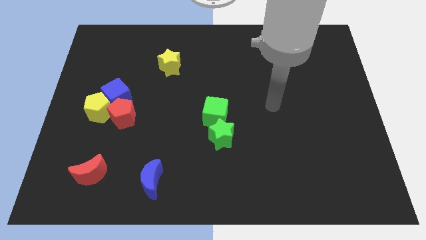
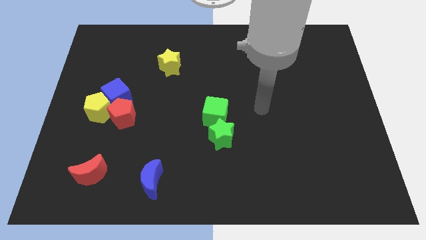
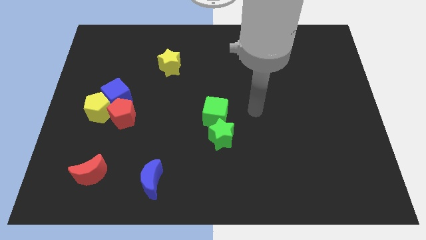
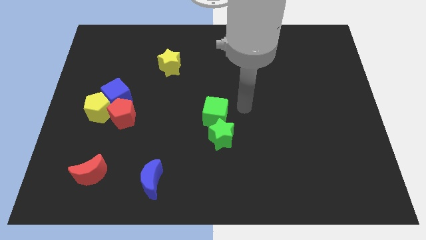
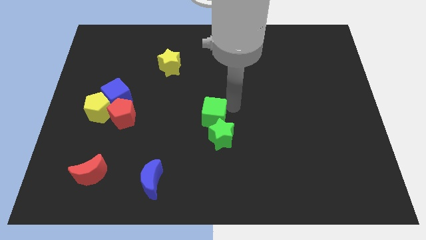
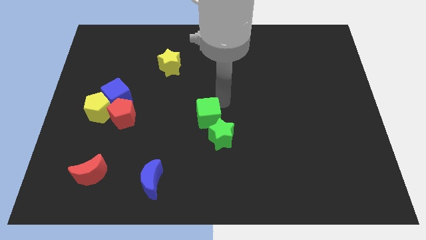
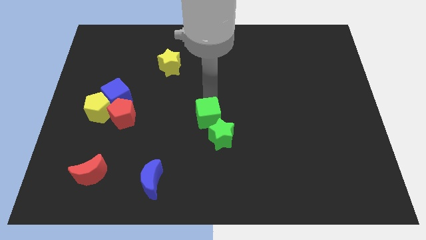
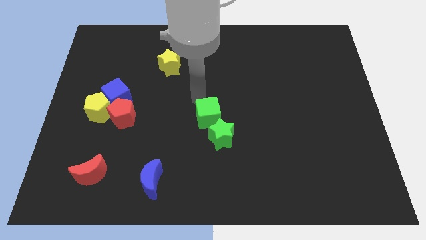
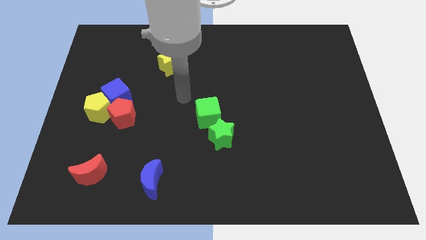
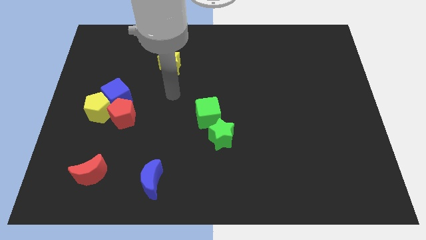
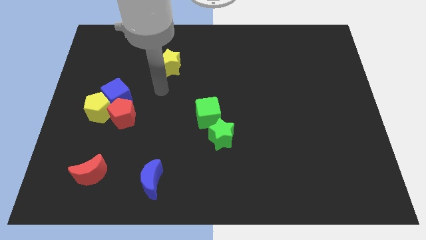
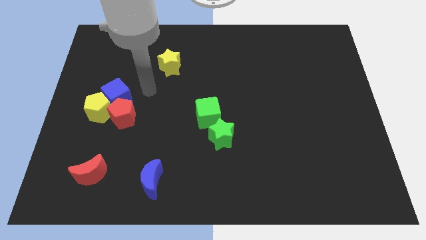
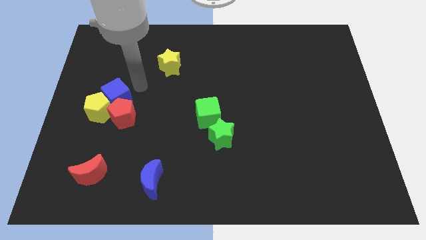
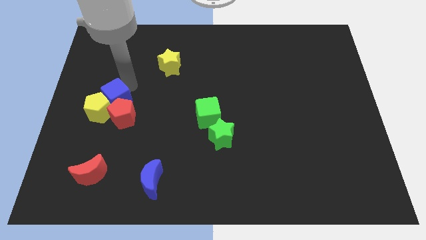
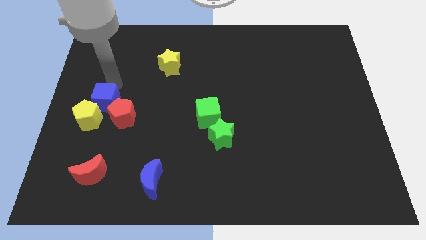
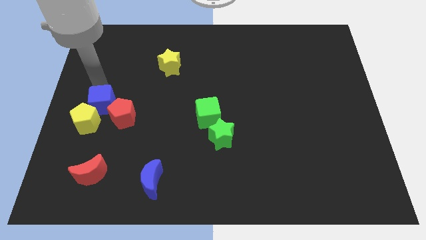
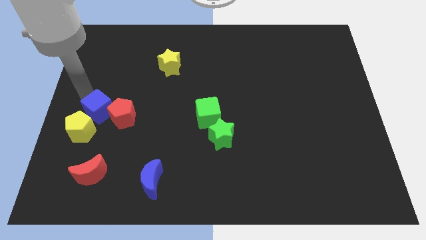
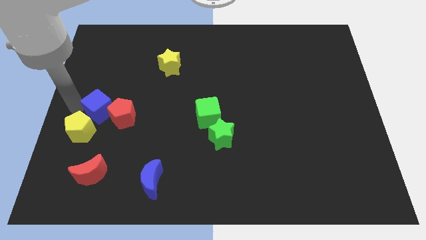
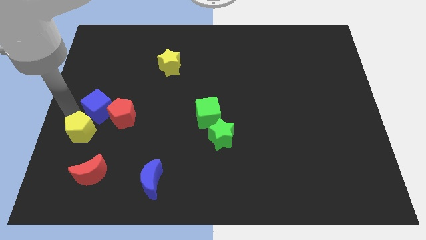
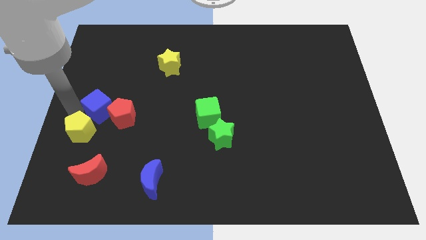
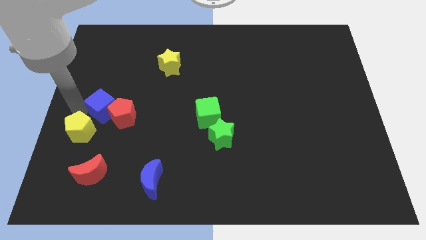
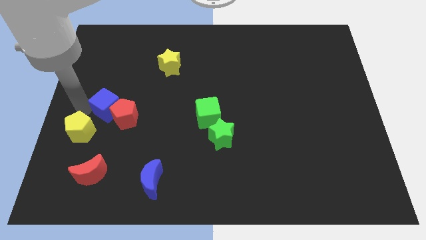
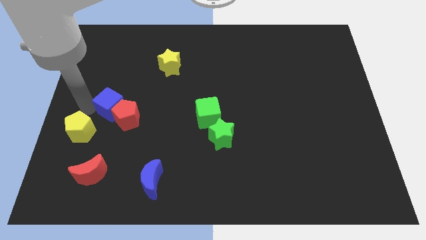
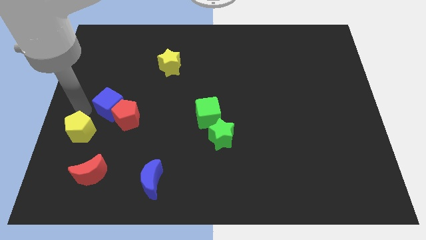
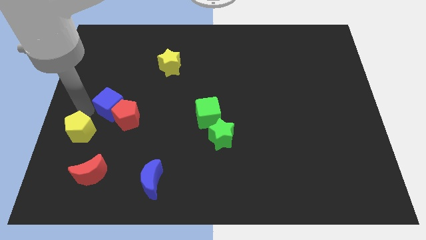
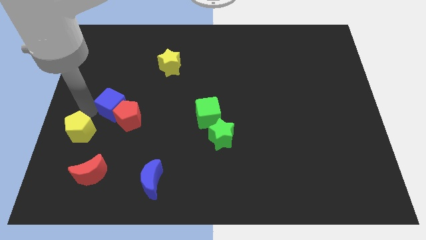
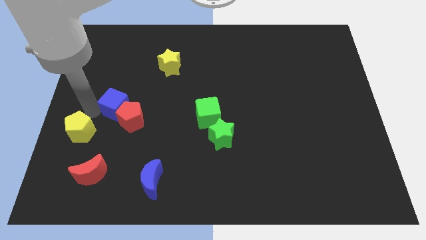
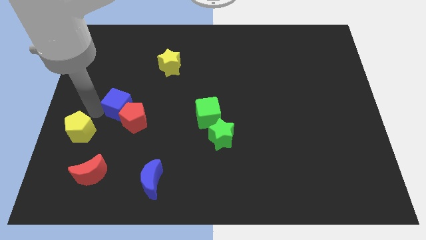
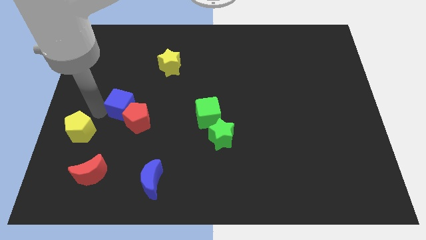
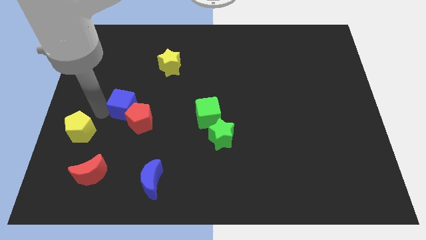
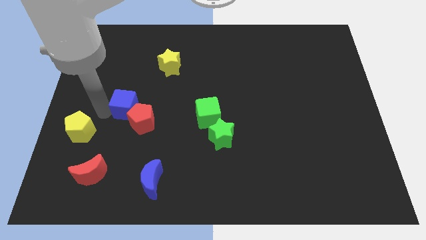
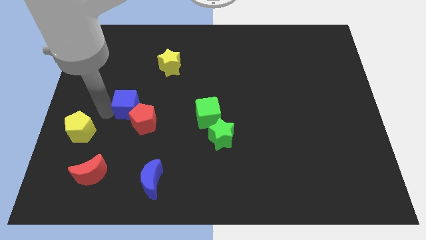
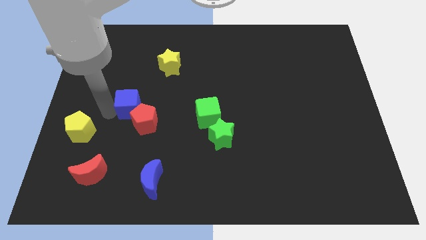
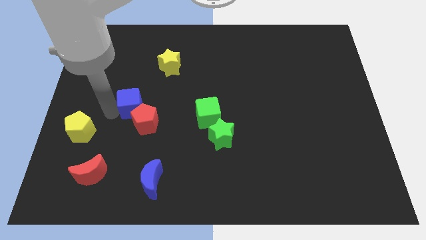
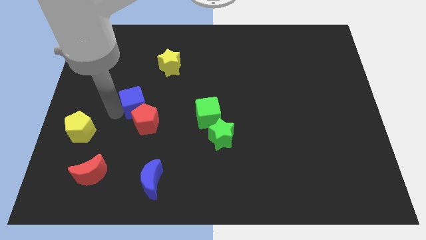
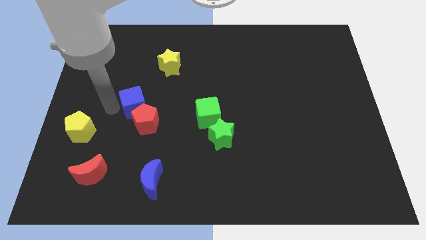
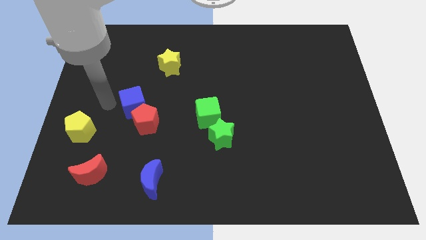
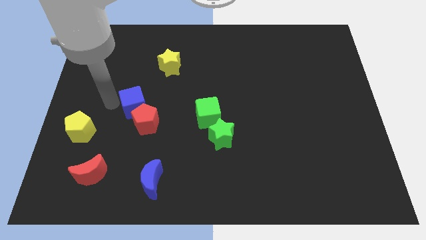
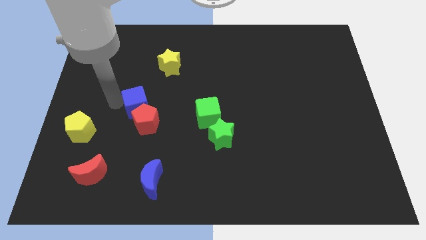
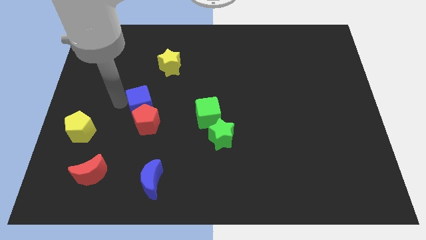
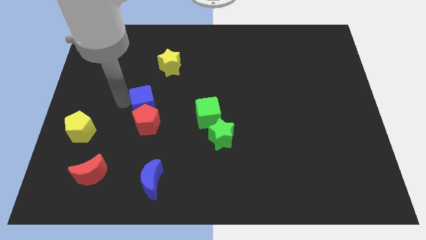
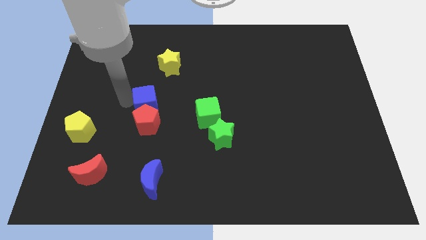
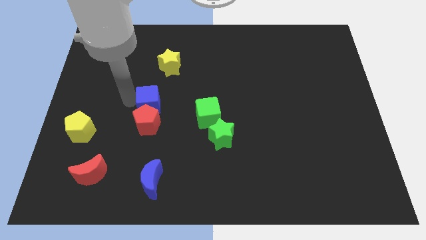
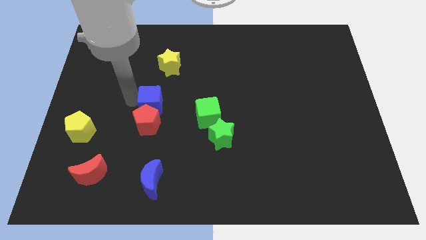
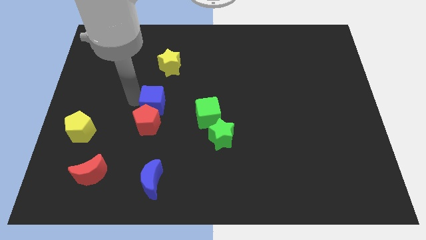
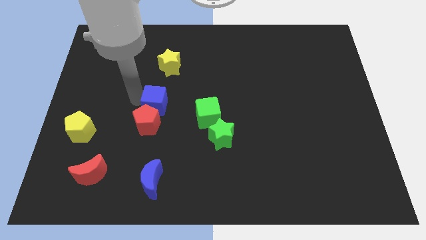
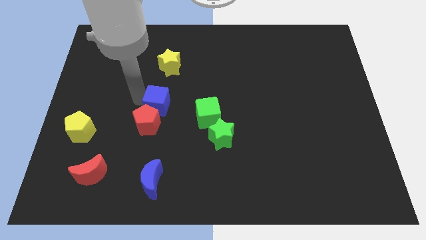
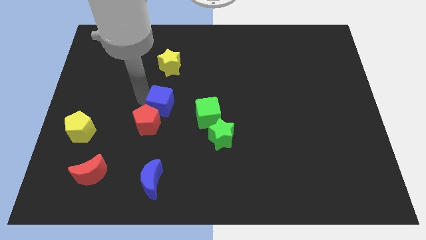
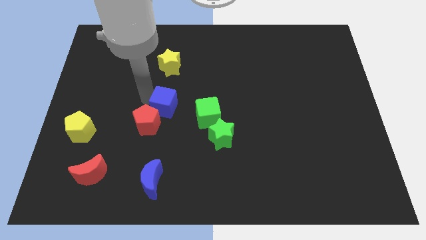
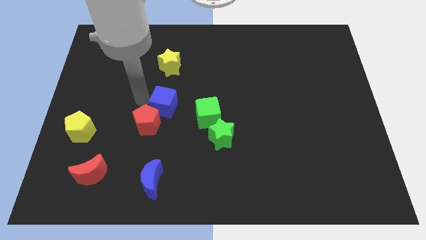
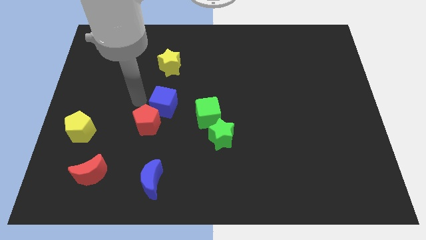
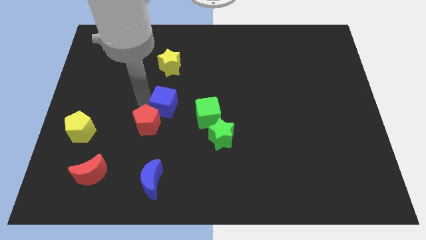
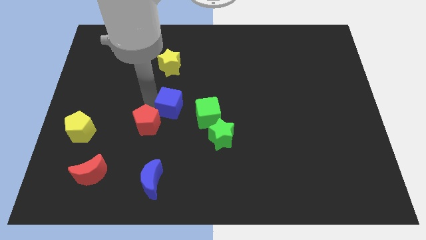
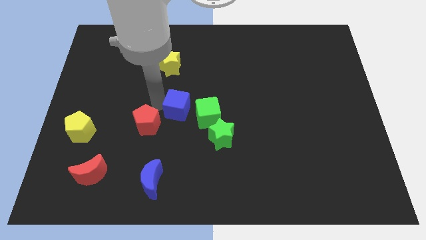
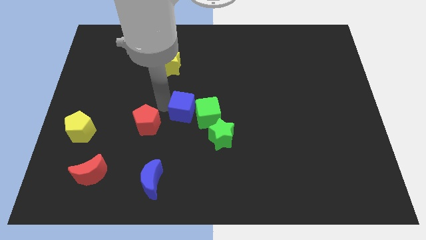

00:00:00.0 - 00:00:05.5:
put the blue cube to the green cube

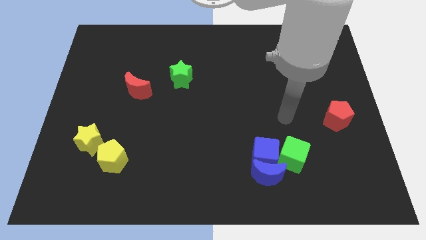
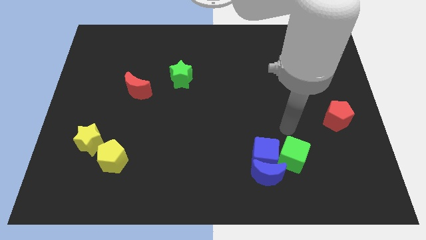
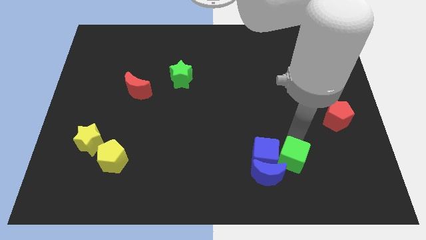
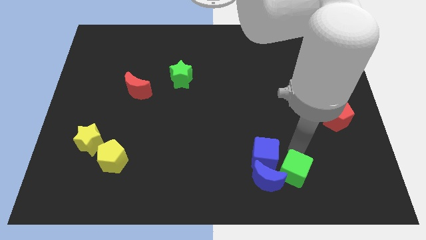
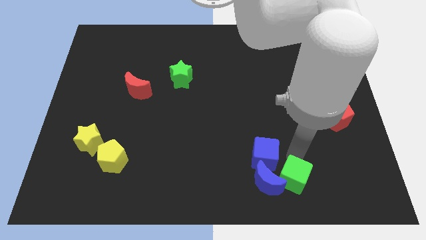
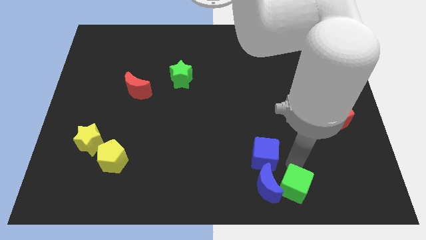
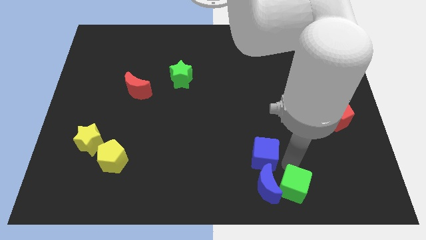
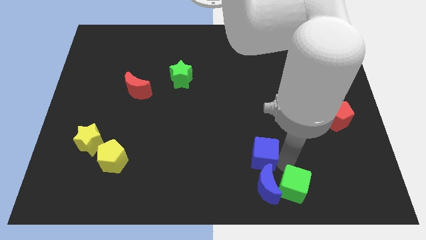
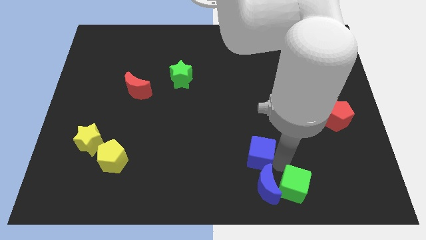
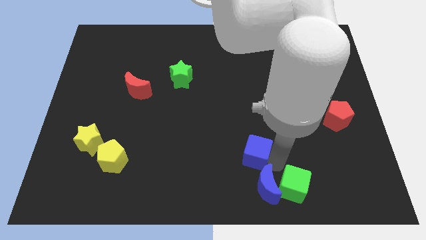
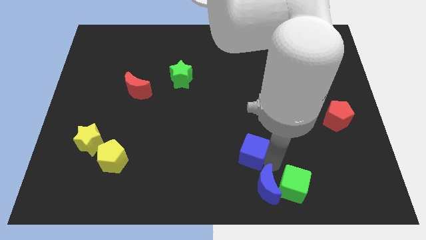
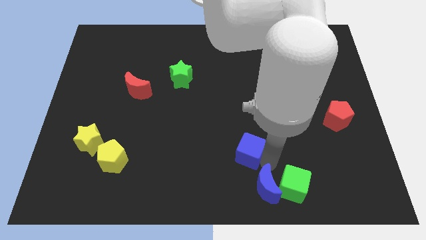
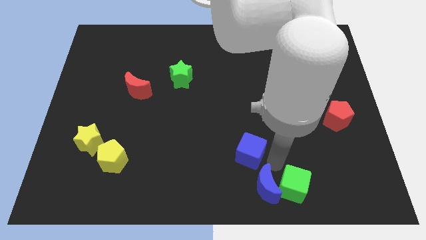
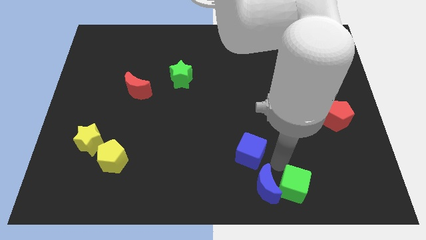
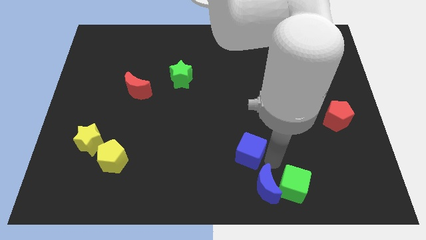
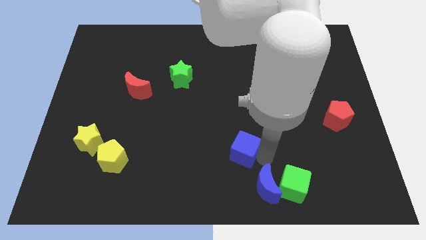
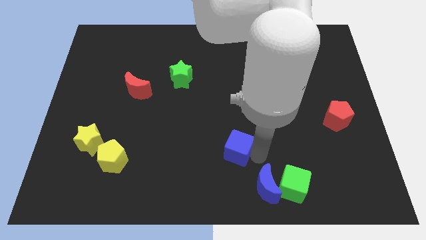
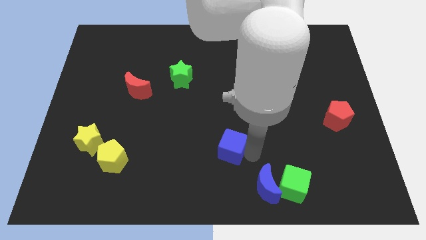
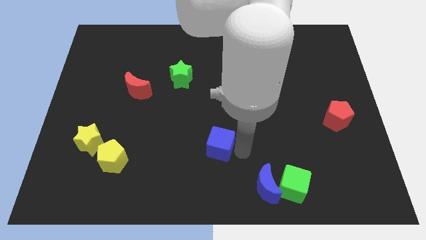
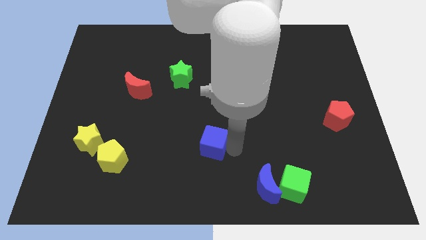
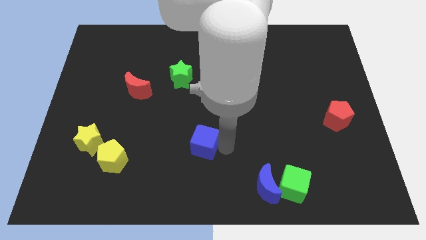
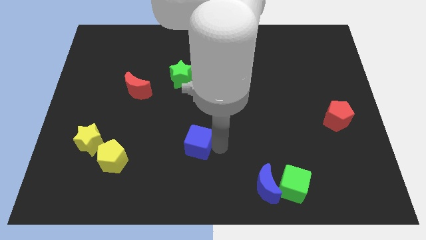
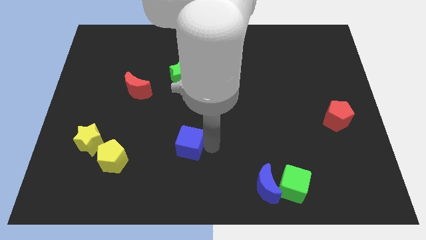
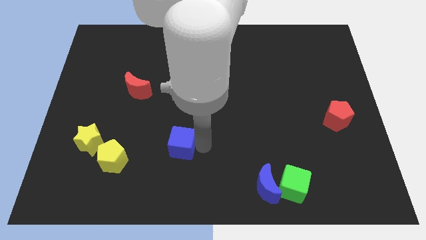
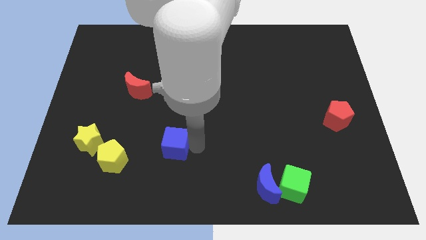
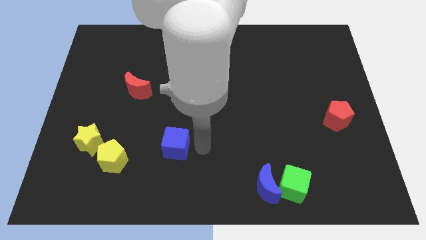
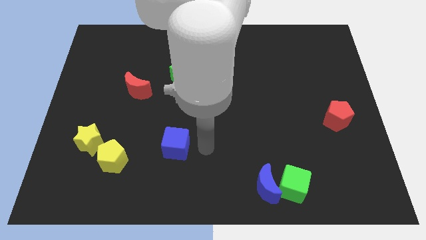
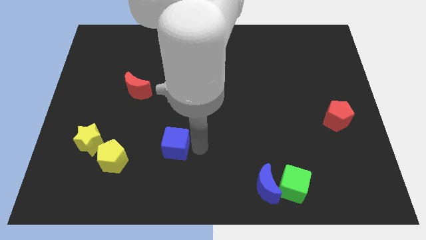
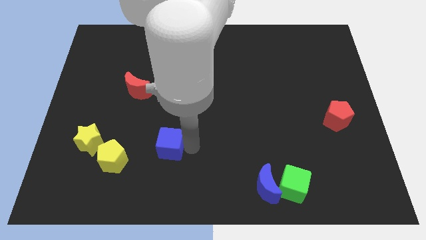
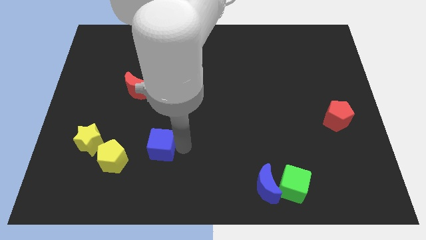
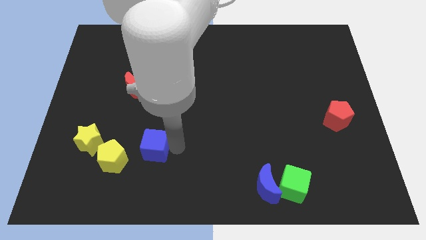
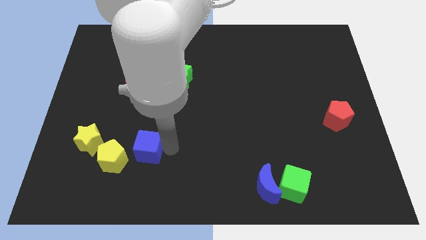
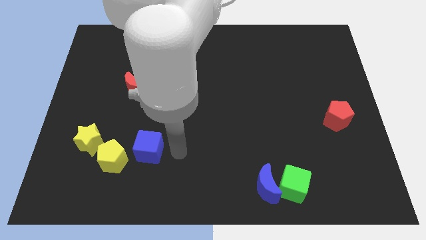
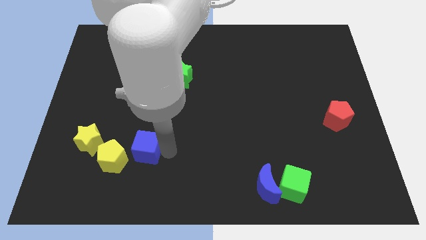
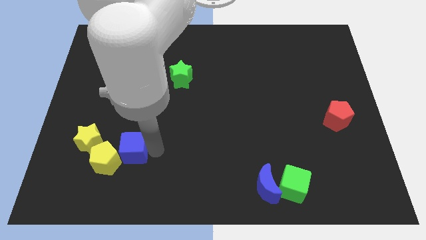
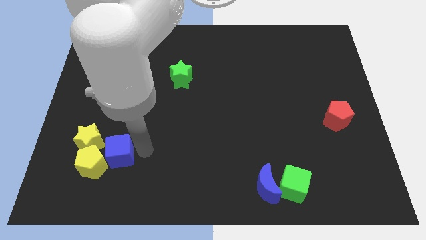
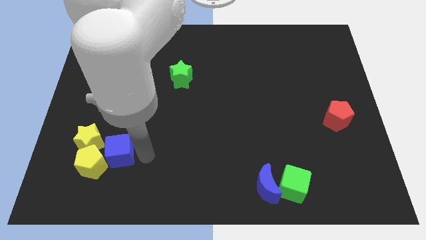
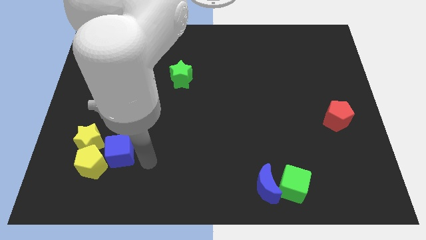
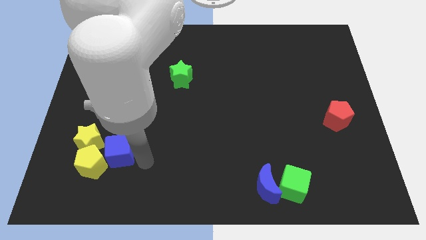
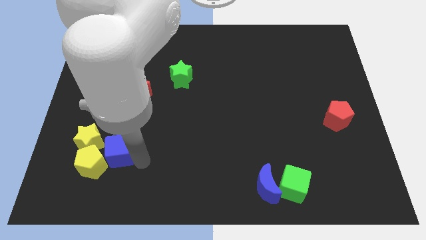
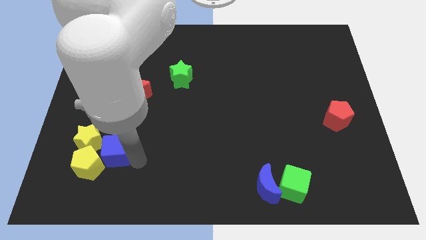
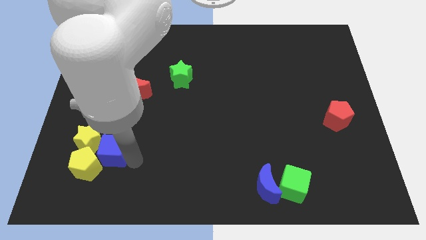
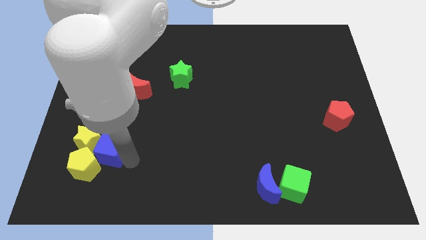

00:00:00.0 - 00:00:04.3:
move the blue cube next to the yellow star
